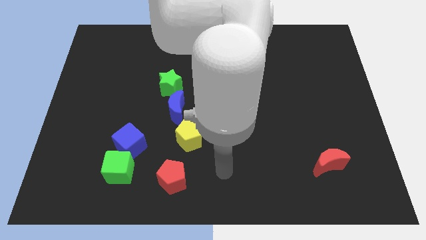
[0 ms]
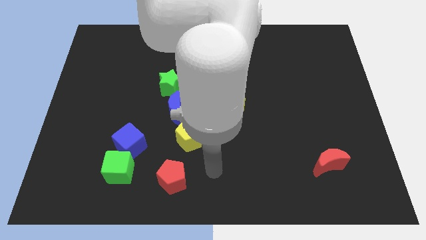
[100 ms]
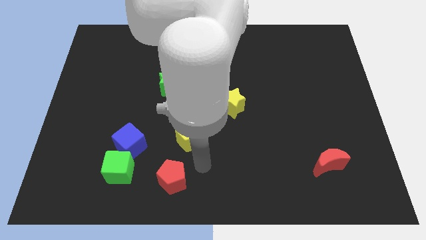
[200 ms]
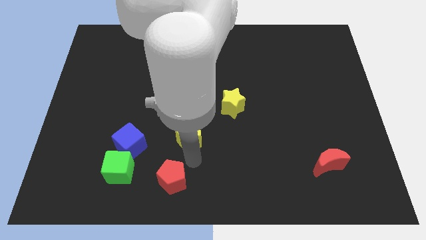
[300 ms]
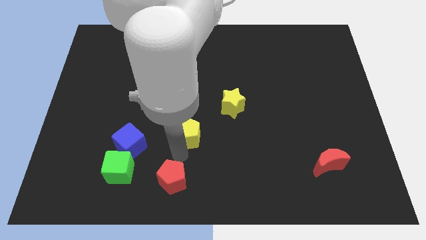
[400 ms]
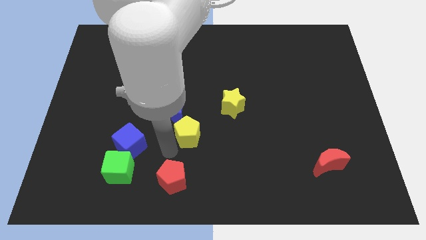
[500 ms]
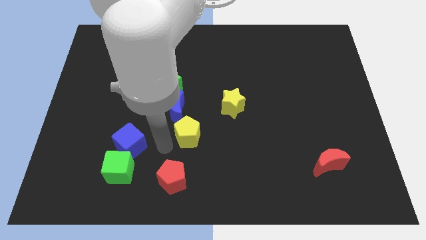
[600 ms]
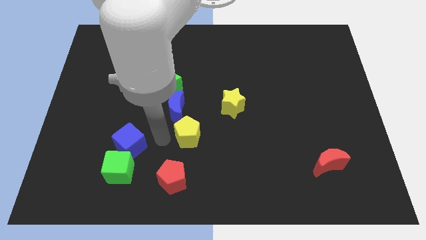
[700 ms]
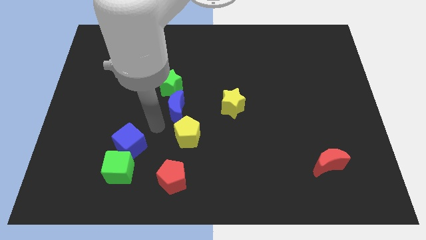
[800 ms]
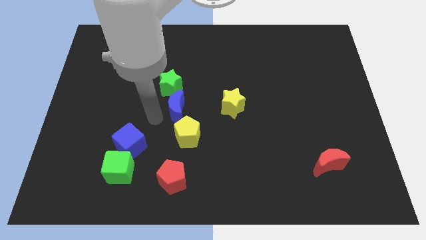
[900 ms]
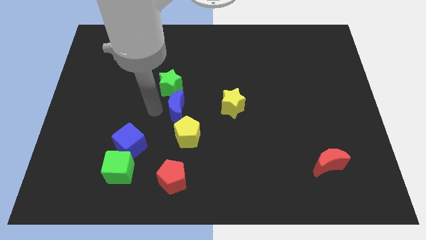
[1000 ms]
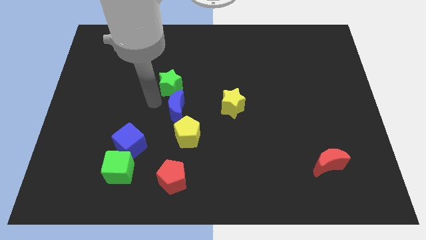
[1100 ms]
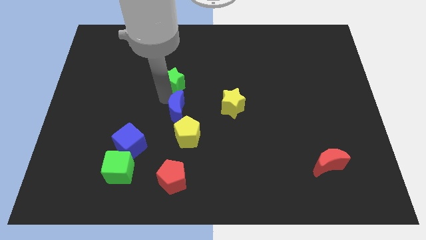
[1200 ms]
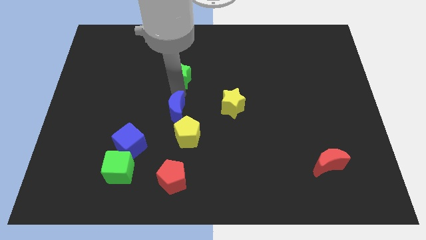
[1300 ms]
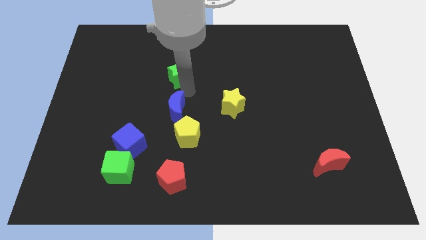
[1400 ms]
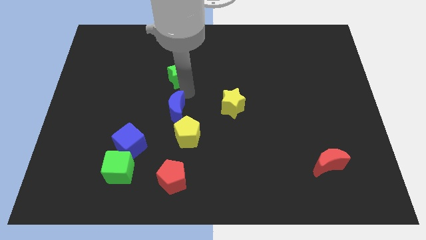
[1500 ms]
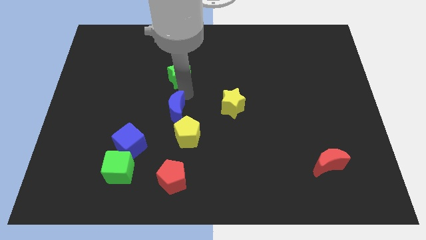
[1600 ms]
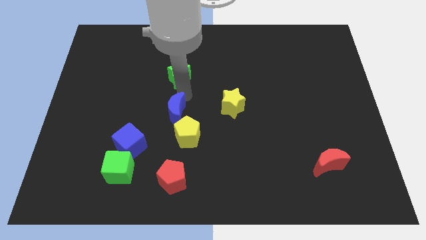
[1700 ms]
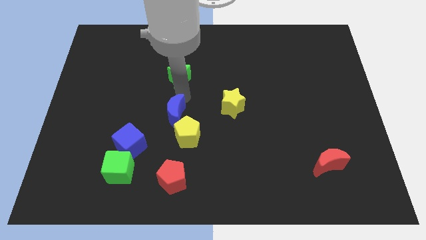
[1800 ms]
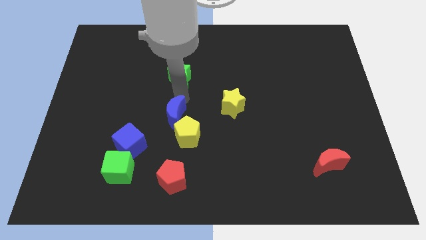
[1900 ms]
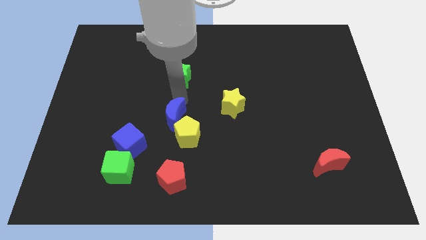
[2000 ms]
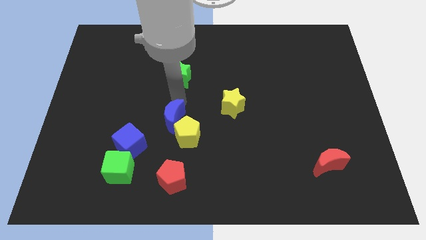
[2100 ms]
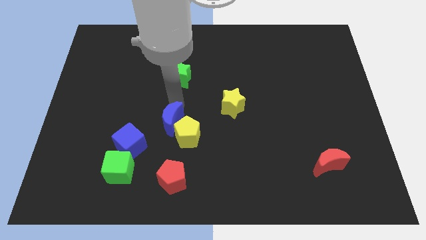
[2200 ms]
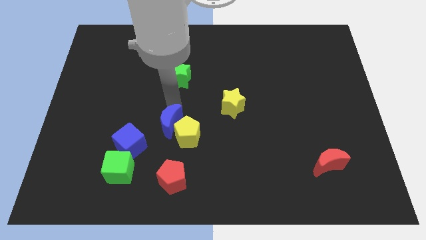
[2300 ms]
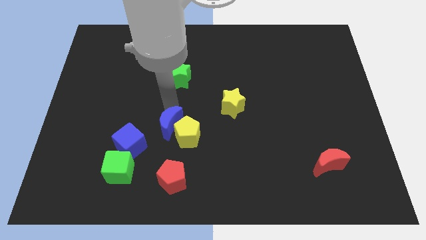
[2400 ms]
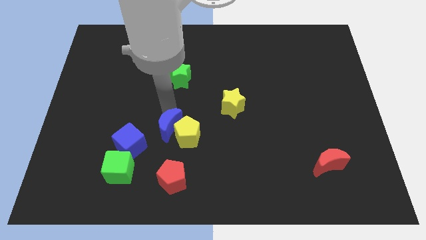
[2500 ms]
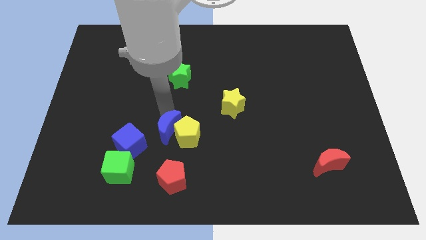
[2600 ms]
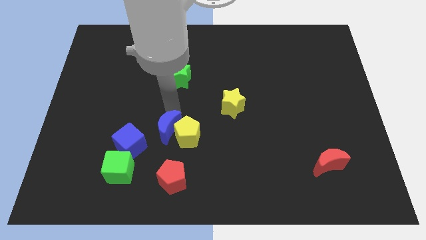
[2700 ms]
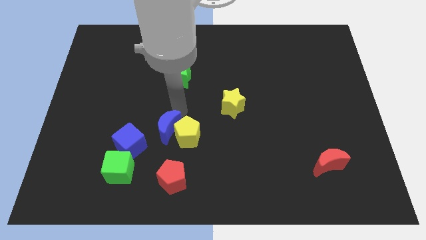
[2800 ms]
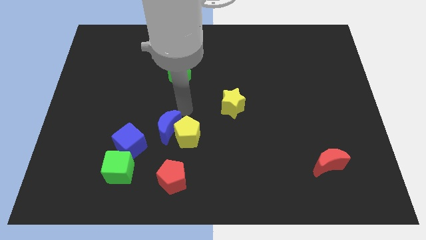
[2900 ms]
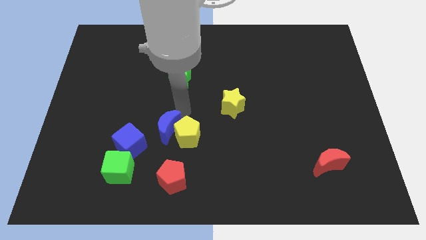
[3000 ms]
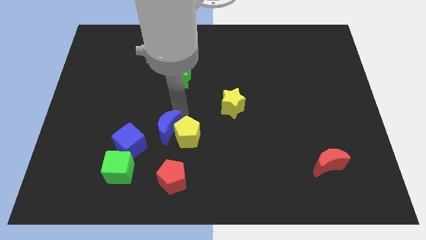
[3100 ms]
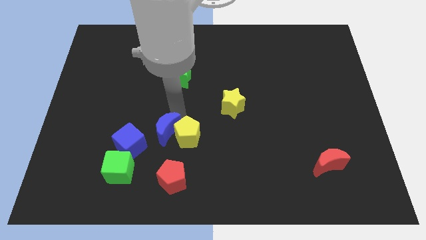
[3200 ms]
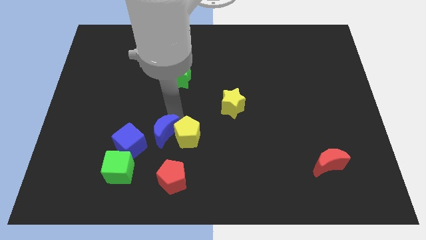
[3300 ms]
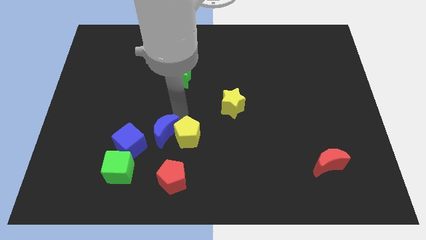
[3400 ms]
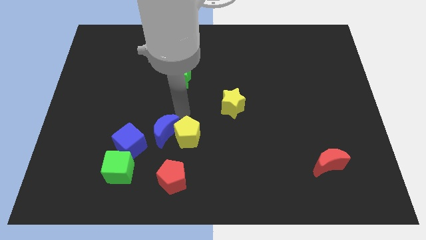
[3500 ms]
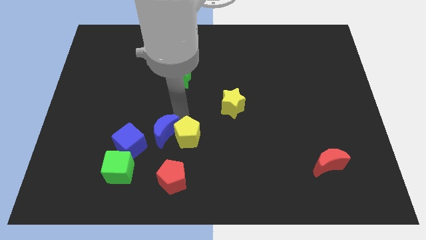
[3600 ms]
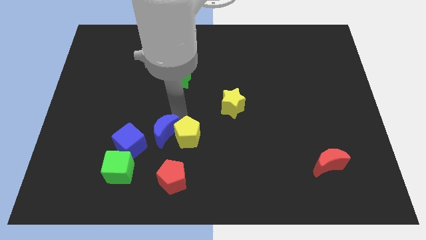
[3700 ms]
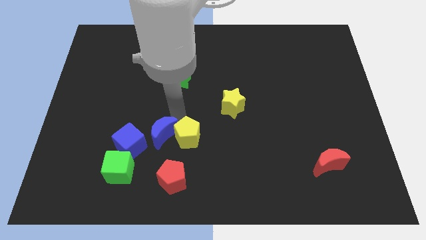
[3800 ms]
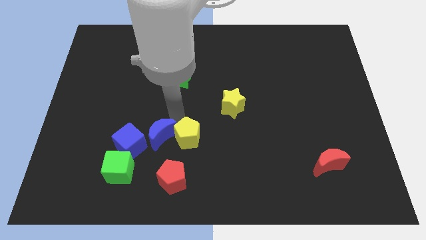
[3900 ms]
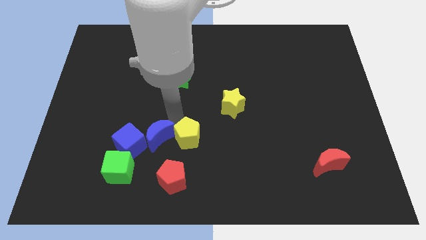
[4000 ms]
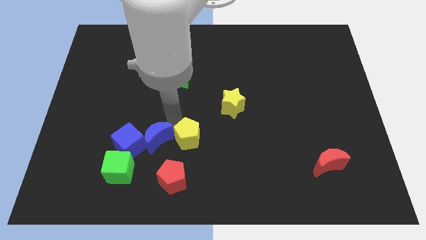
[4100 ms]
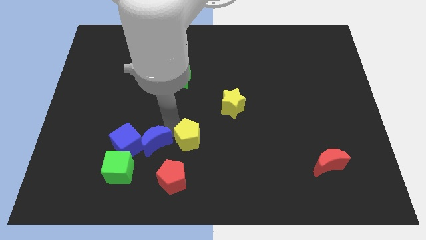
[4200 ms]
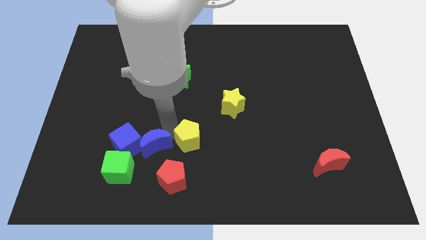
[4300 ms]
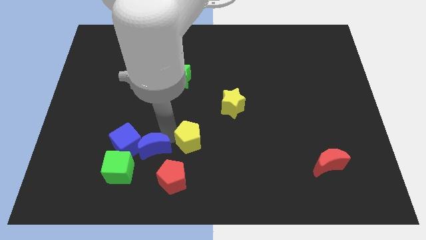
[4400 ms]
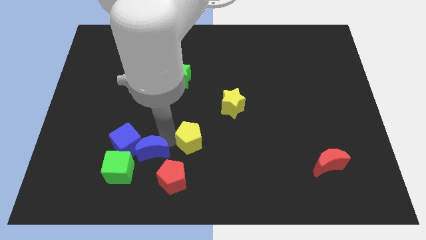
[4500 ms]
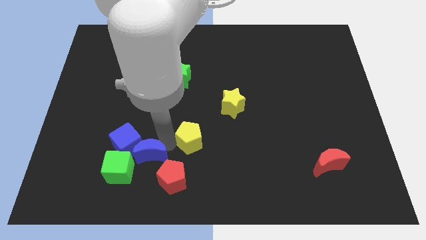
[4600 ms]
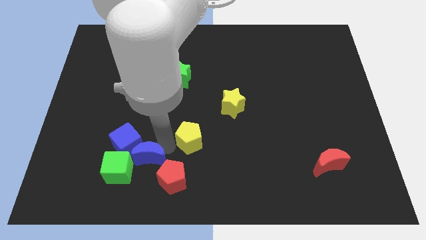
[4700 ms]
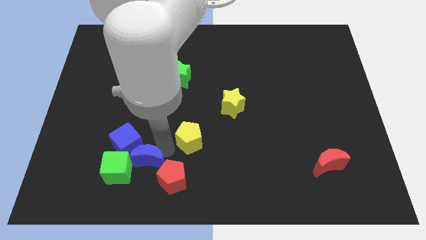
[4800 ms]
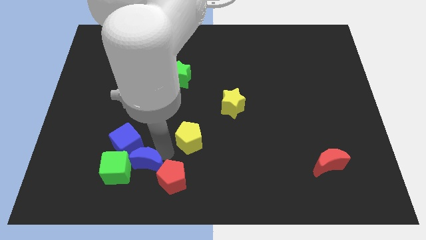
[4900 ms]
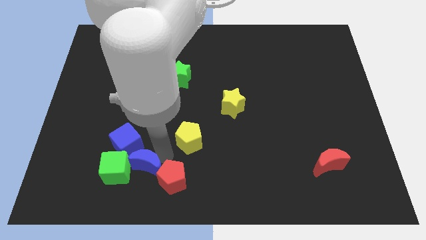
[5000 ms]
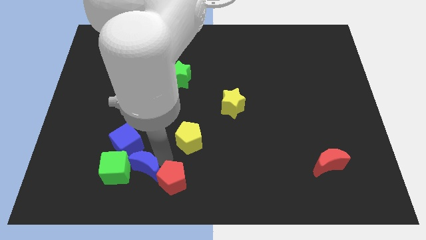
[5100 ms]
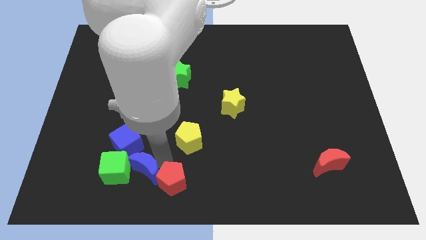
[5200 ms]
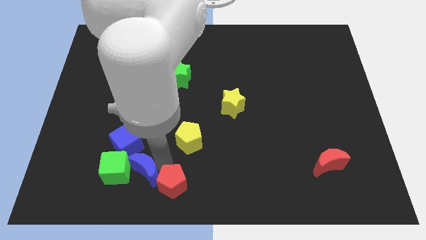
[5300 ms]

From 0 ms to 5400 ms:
slide the blue moon to the green cube
